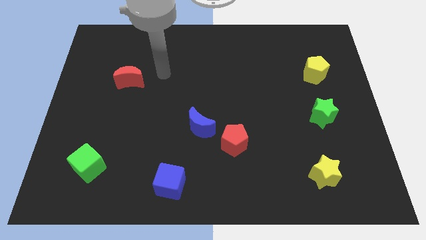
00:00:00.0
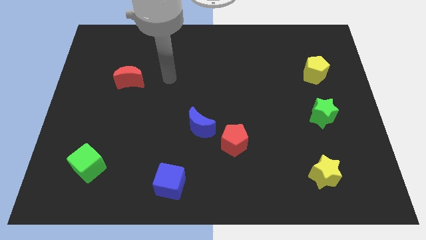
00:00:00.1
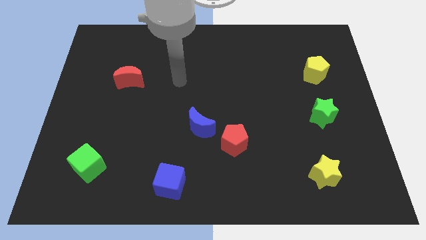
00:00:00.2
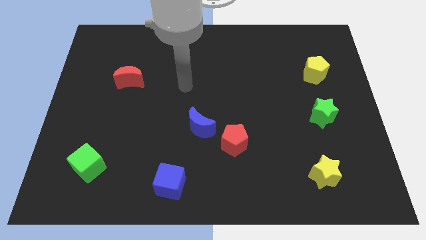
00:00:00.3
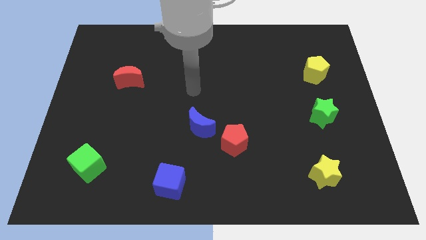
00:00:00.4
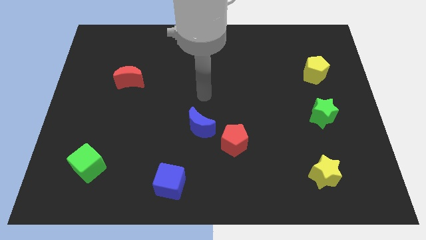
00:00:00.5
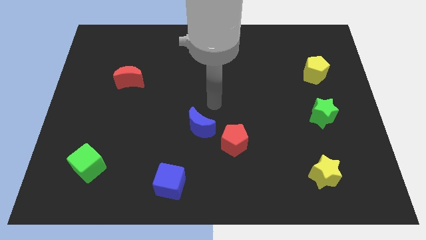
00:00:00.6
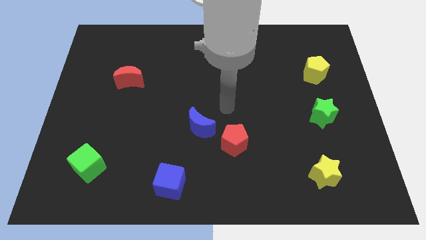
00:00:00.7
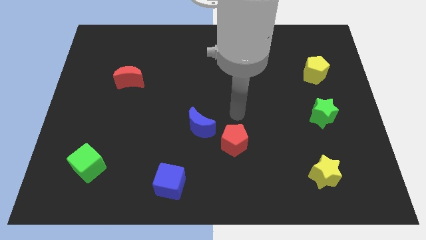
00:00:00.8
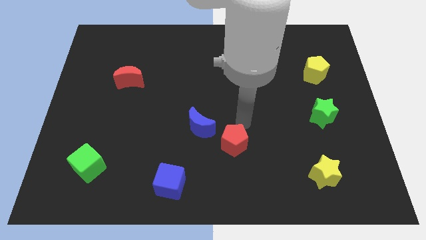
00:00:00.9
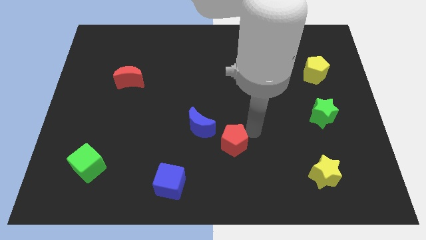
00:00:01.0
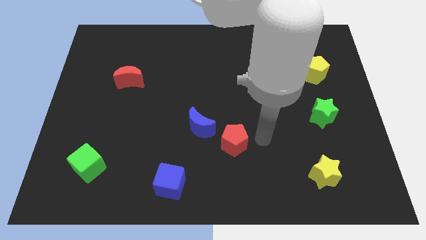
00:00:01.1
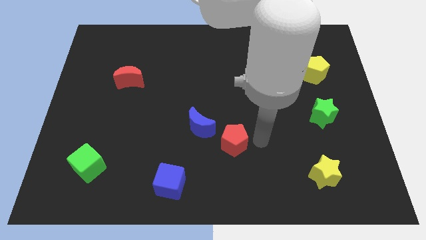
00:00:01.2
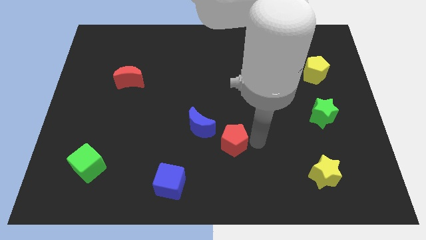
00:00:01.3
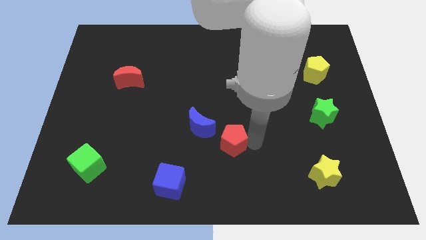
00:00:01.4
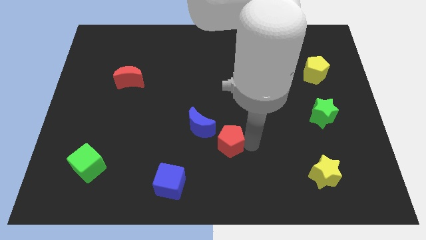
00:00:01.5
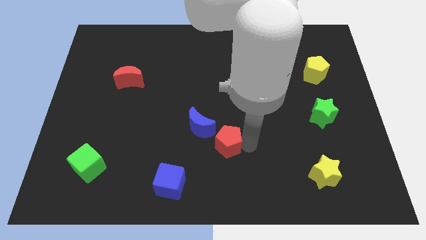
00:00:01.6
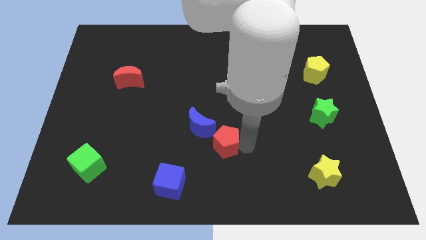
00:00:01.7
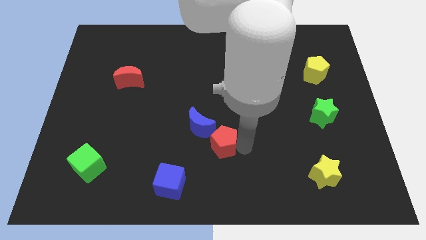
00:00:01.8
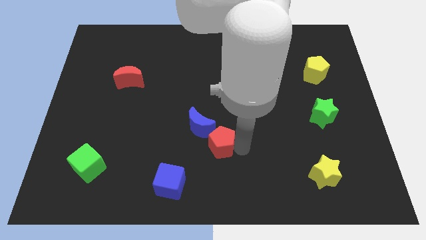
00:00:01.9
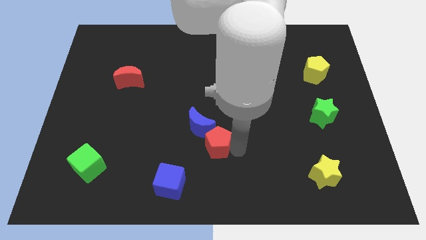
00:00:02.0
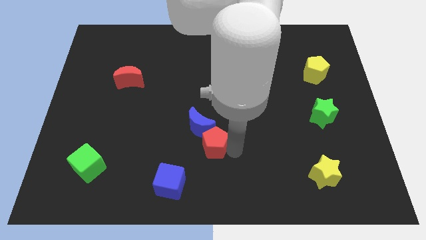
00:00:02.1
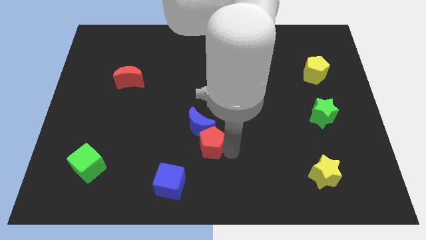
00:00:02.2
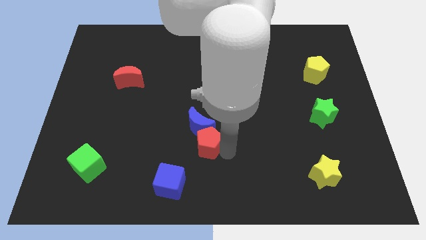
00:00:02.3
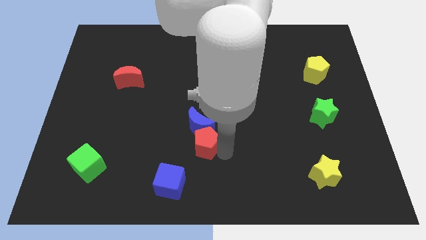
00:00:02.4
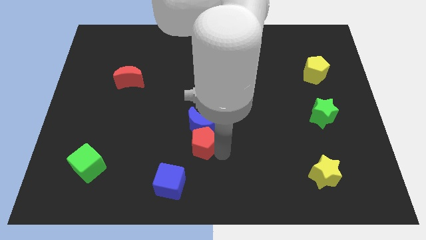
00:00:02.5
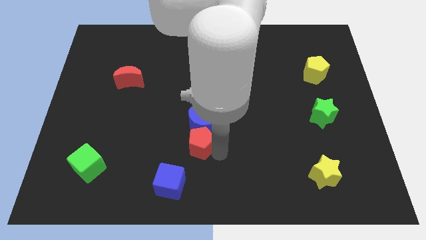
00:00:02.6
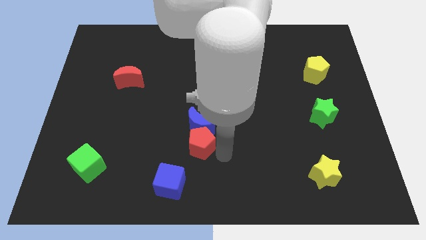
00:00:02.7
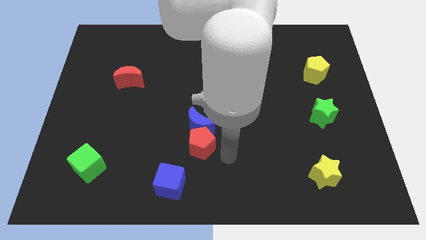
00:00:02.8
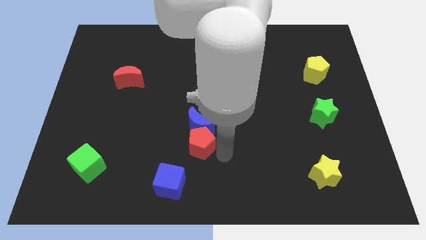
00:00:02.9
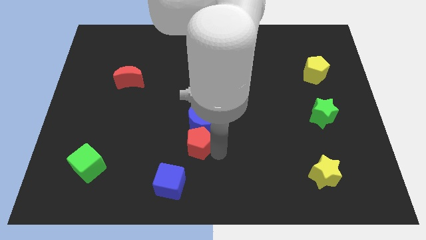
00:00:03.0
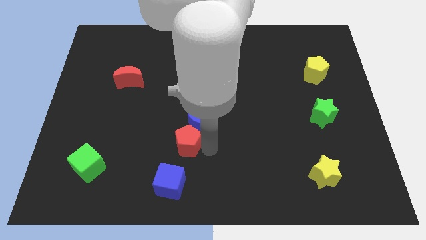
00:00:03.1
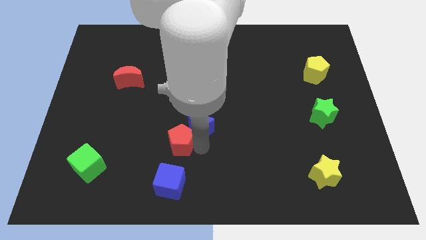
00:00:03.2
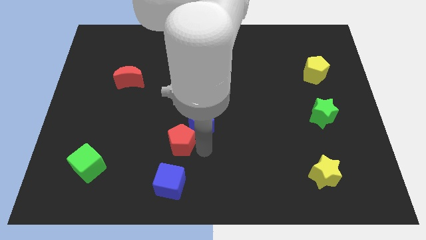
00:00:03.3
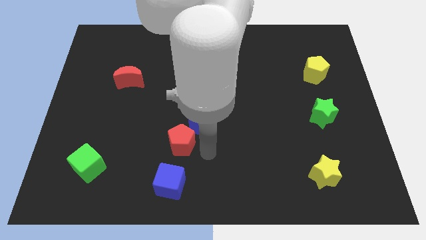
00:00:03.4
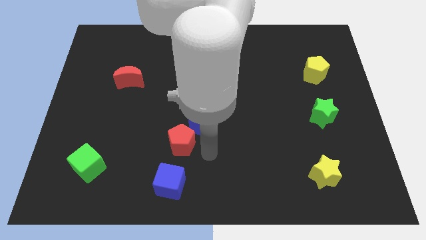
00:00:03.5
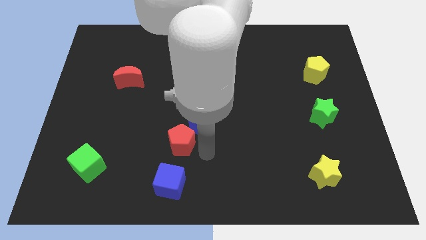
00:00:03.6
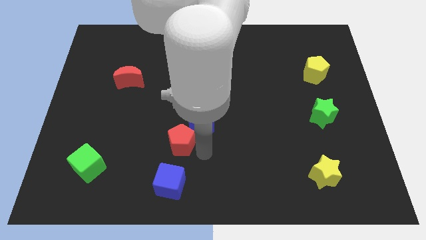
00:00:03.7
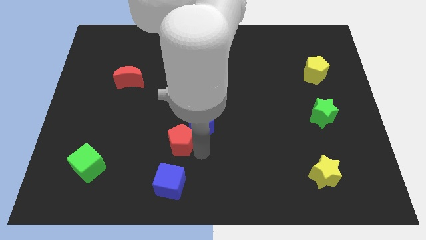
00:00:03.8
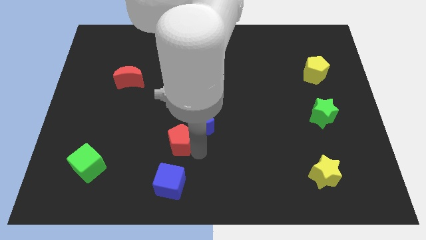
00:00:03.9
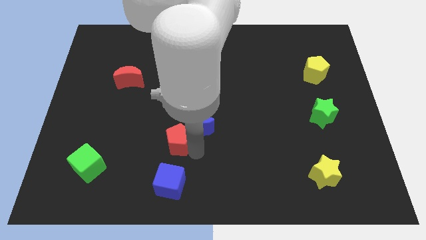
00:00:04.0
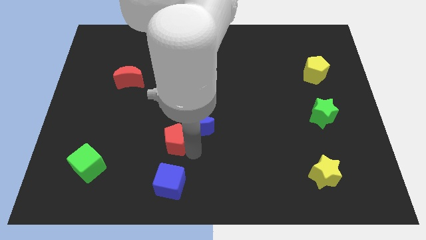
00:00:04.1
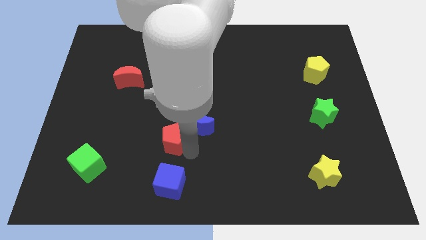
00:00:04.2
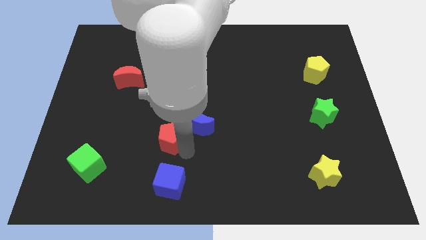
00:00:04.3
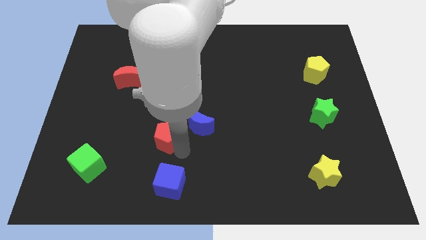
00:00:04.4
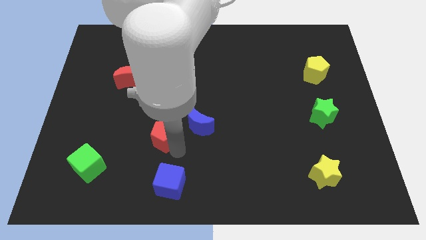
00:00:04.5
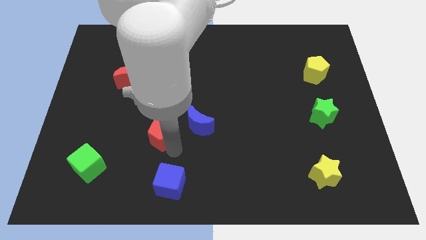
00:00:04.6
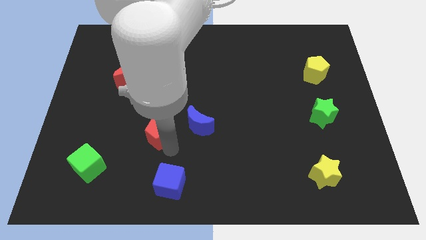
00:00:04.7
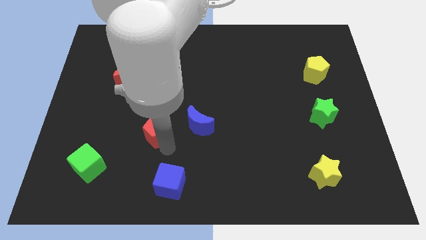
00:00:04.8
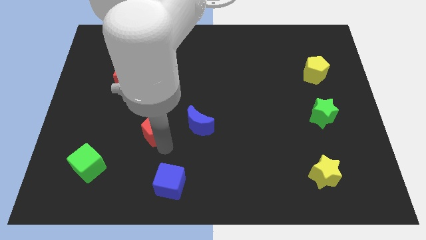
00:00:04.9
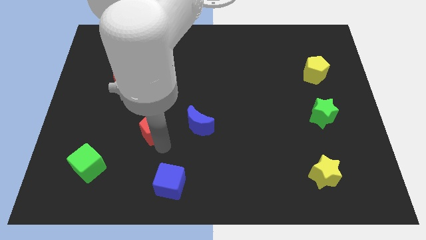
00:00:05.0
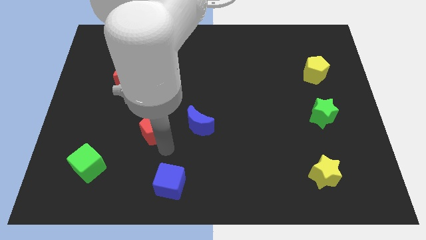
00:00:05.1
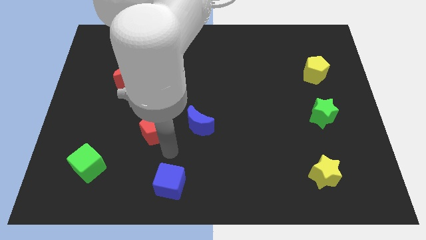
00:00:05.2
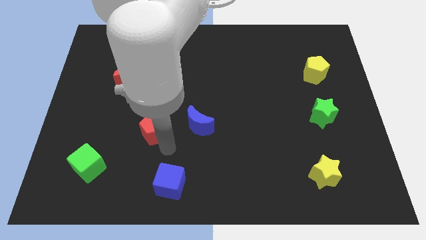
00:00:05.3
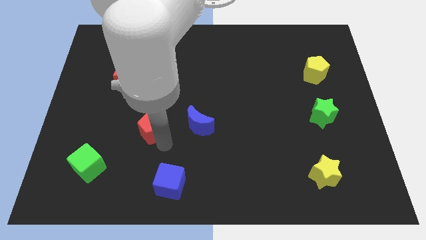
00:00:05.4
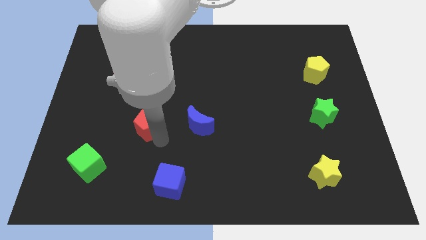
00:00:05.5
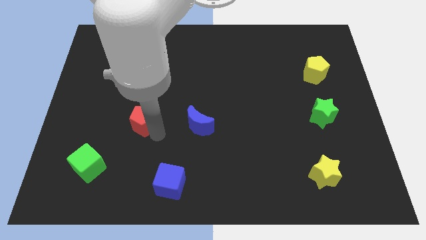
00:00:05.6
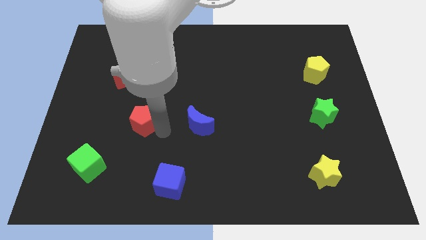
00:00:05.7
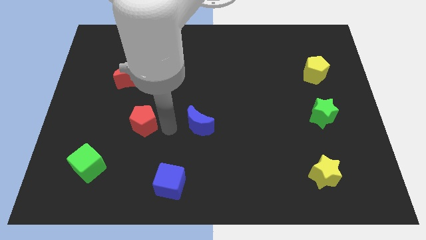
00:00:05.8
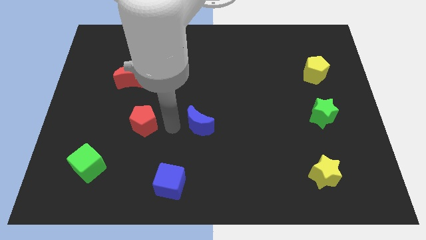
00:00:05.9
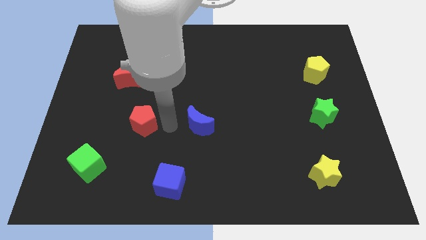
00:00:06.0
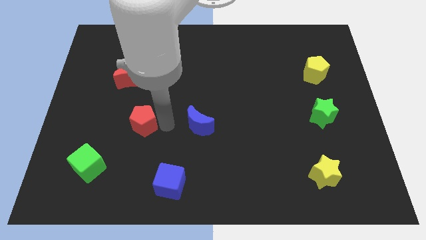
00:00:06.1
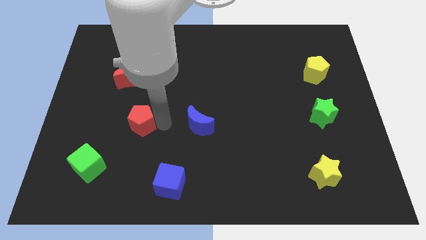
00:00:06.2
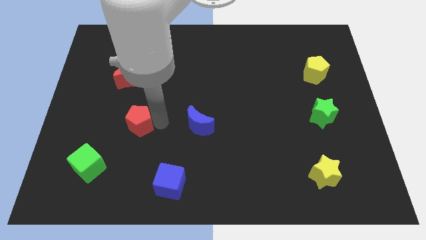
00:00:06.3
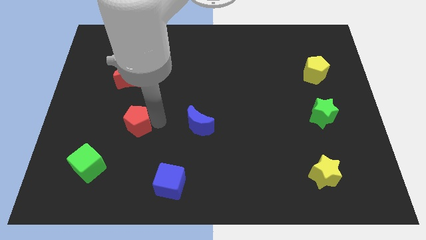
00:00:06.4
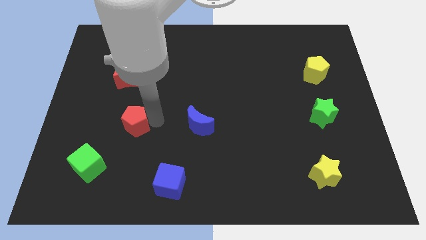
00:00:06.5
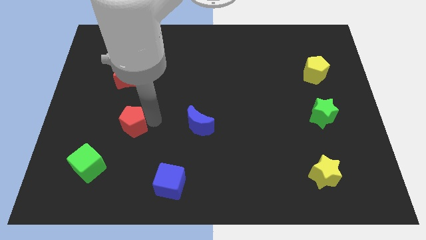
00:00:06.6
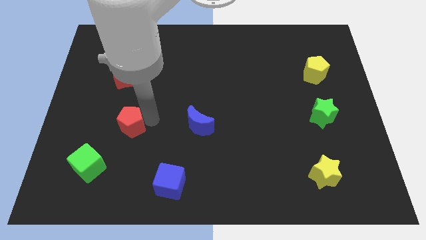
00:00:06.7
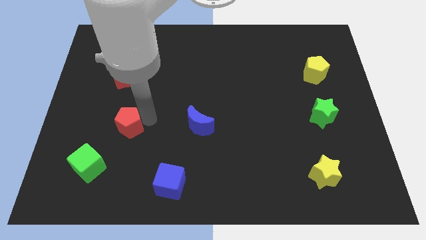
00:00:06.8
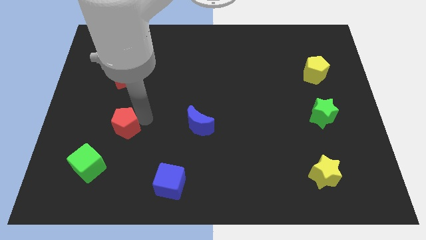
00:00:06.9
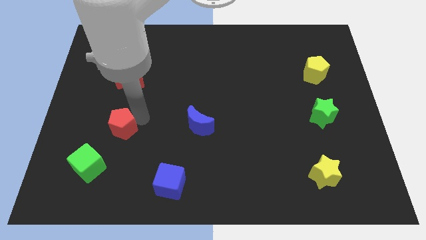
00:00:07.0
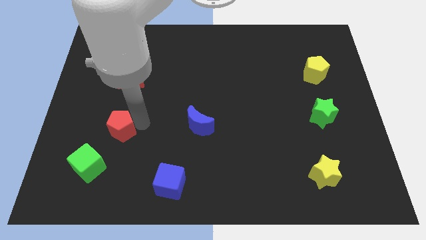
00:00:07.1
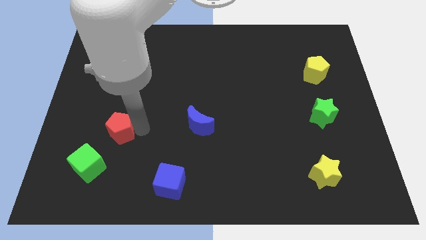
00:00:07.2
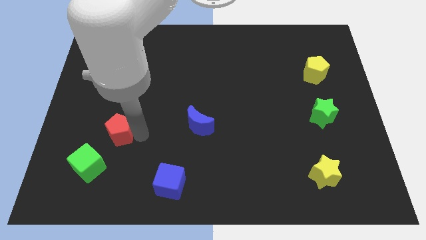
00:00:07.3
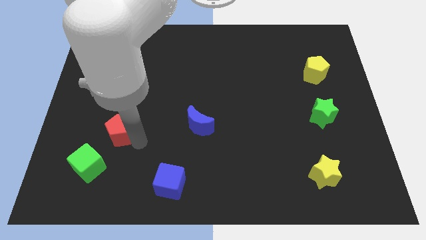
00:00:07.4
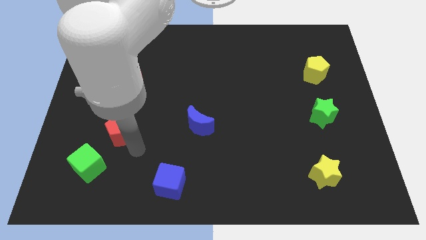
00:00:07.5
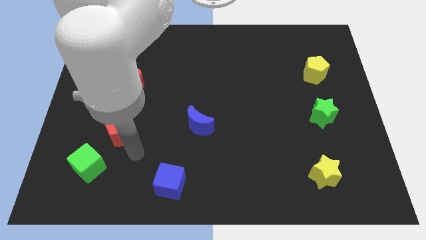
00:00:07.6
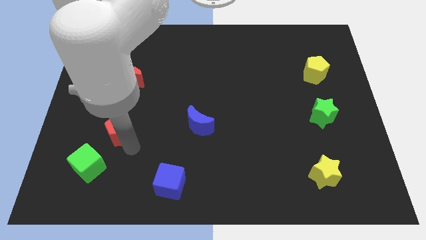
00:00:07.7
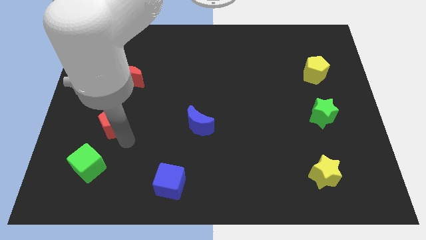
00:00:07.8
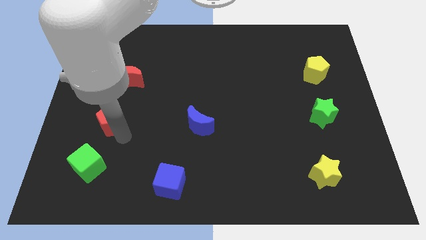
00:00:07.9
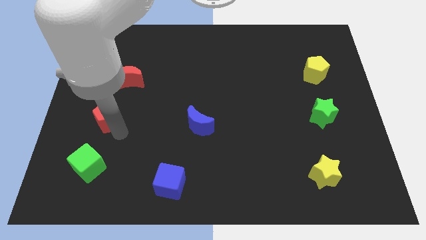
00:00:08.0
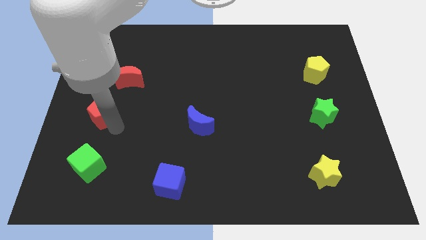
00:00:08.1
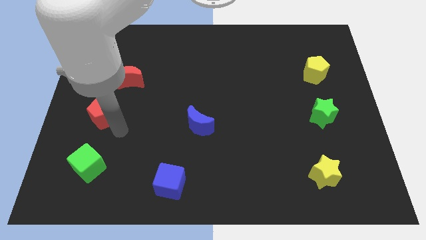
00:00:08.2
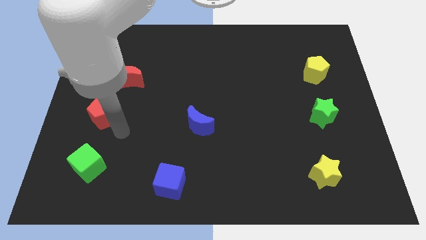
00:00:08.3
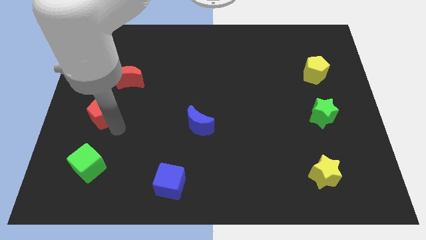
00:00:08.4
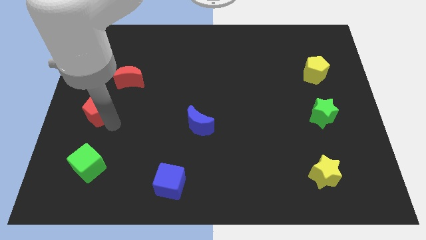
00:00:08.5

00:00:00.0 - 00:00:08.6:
push the red pentagon to the center left
